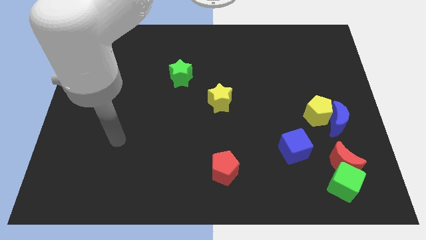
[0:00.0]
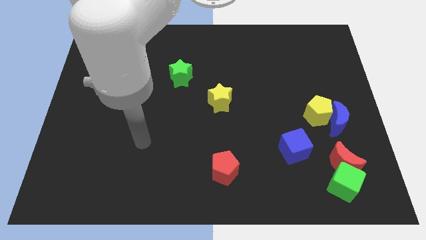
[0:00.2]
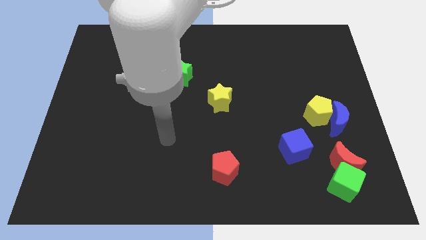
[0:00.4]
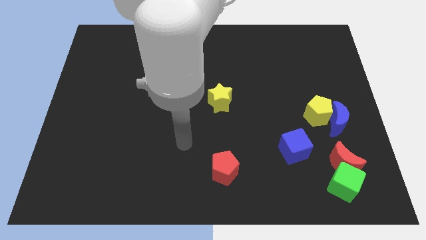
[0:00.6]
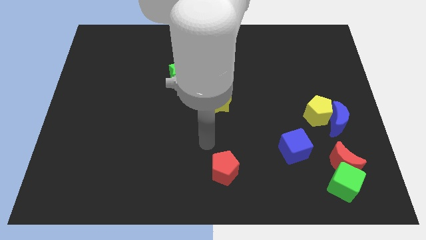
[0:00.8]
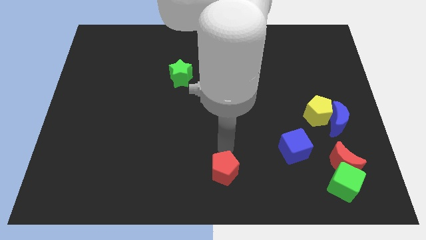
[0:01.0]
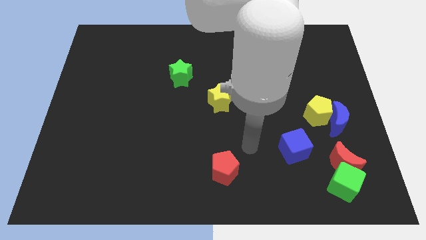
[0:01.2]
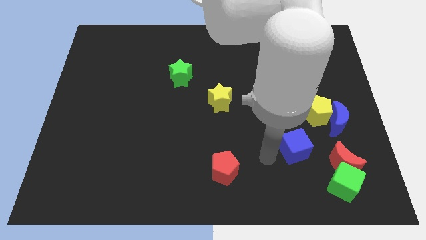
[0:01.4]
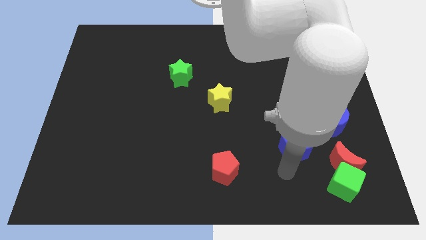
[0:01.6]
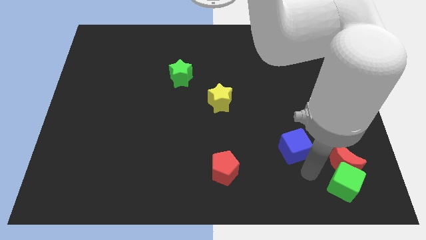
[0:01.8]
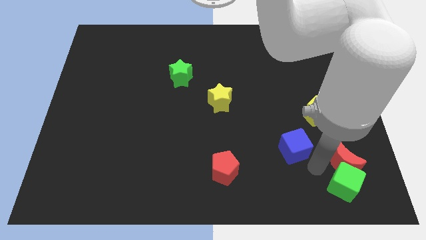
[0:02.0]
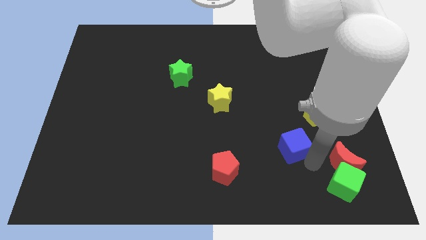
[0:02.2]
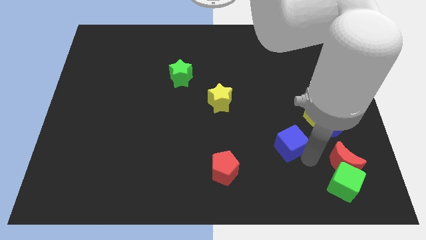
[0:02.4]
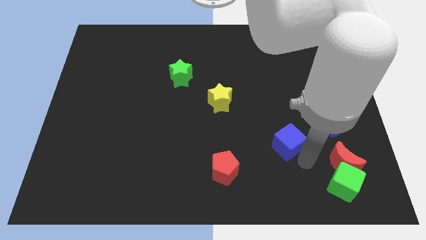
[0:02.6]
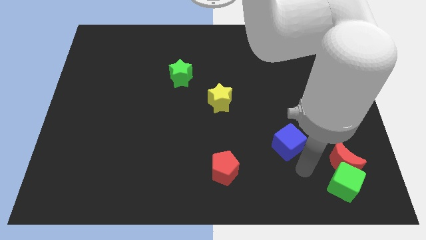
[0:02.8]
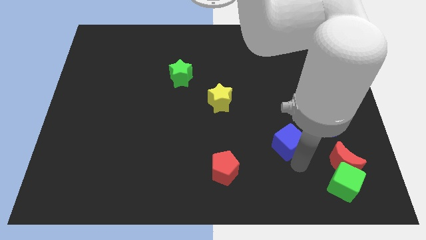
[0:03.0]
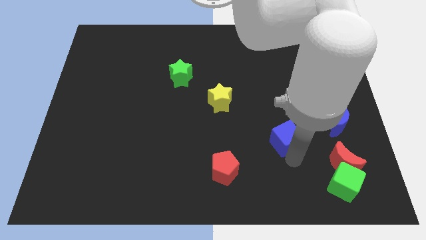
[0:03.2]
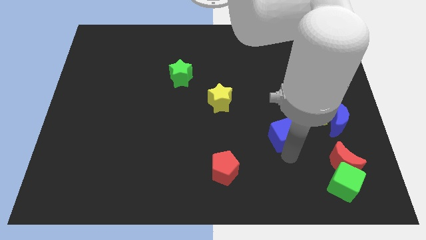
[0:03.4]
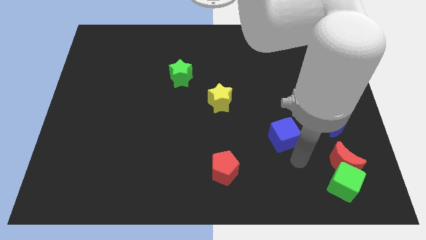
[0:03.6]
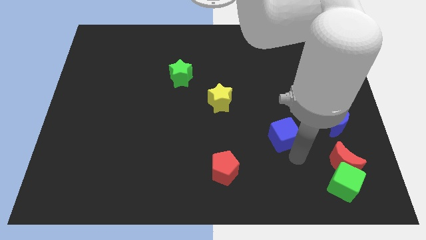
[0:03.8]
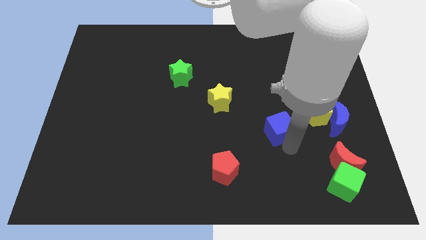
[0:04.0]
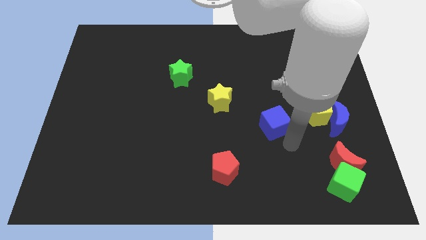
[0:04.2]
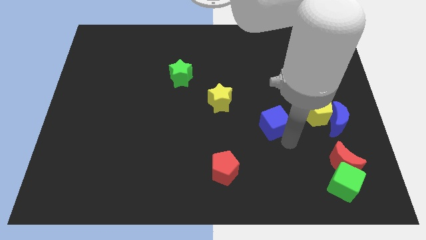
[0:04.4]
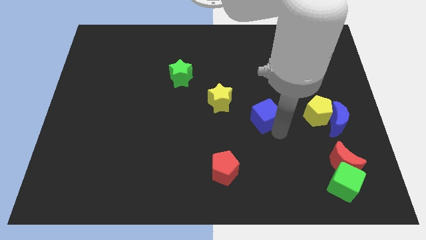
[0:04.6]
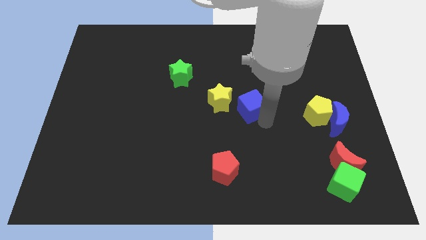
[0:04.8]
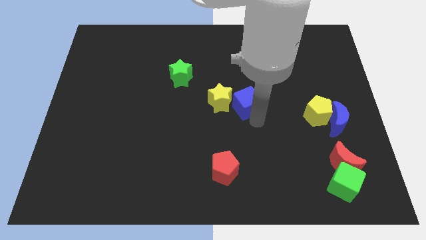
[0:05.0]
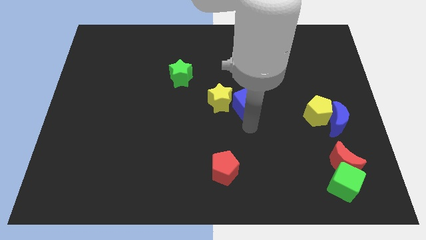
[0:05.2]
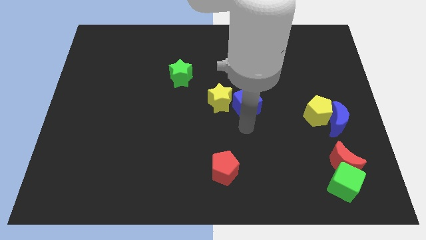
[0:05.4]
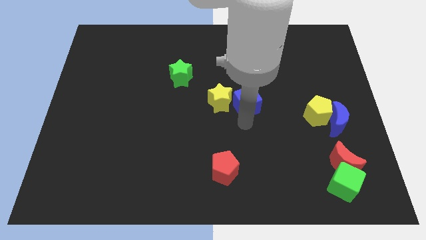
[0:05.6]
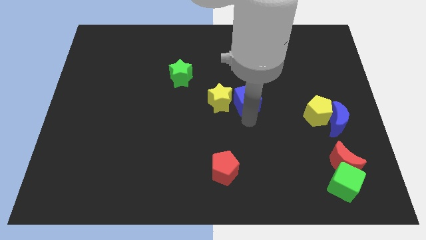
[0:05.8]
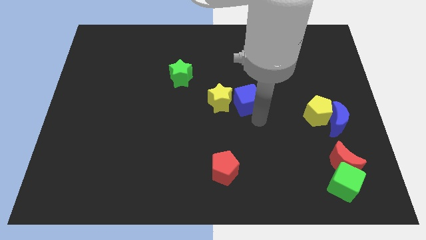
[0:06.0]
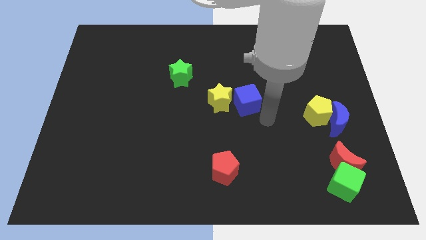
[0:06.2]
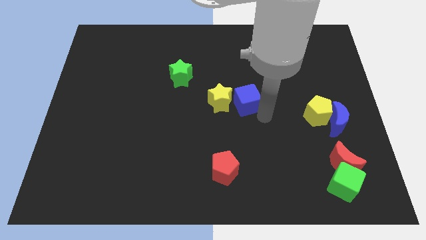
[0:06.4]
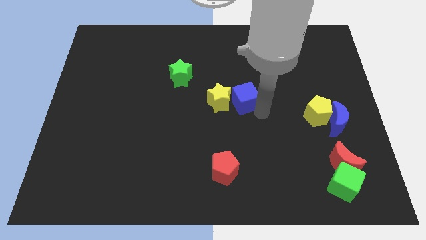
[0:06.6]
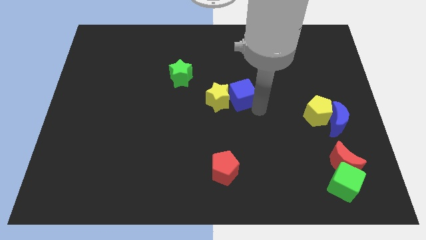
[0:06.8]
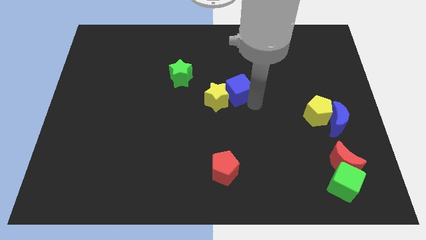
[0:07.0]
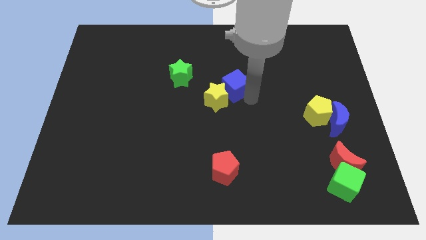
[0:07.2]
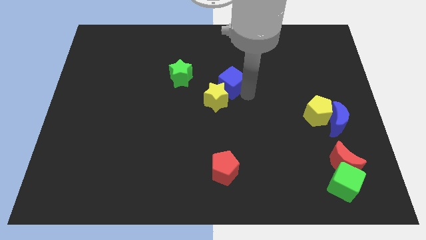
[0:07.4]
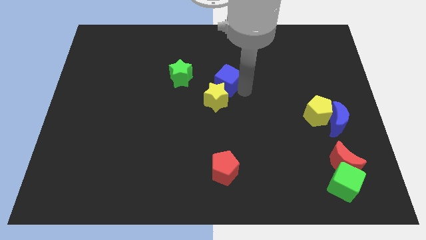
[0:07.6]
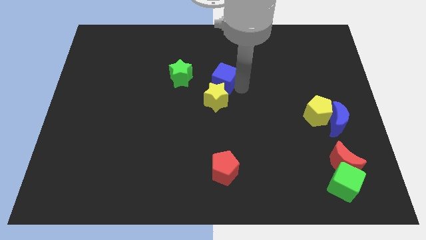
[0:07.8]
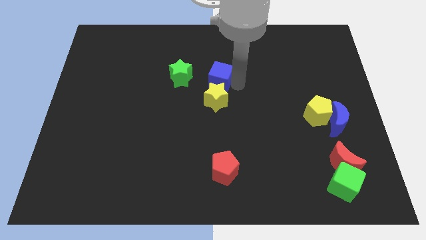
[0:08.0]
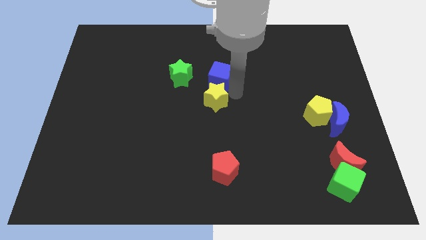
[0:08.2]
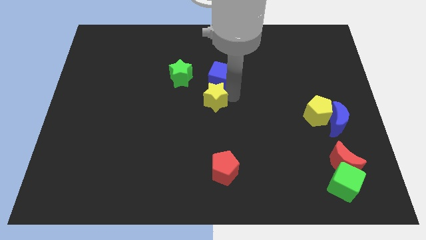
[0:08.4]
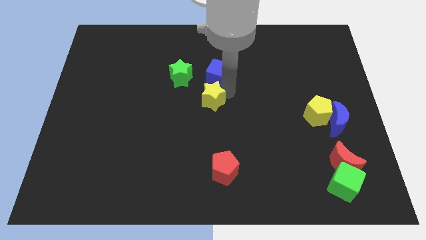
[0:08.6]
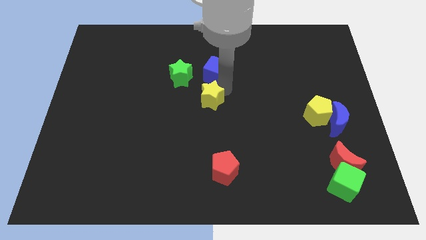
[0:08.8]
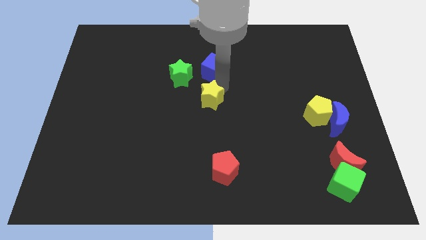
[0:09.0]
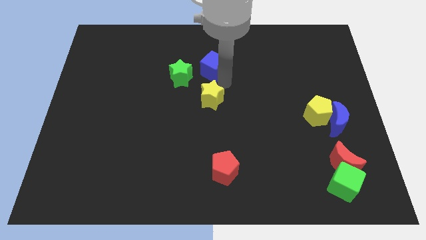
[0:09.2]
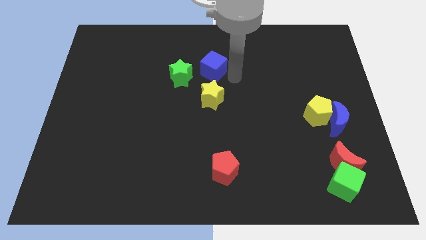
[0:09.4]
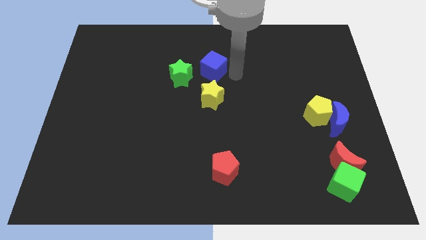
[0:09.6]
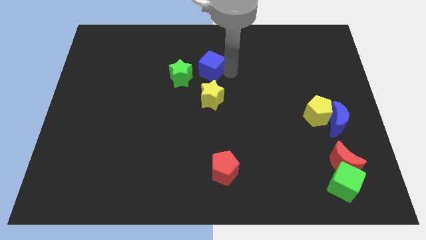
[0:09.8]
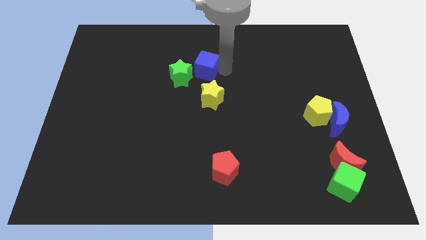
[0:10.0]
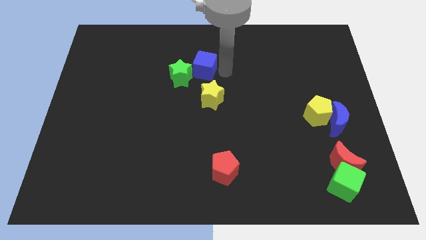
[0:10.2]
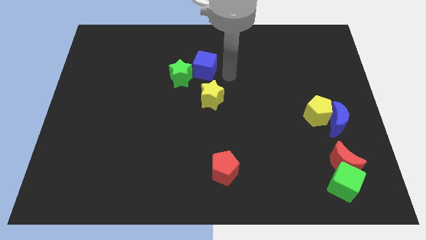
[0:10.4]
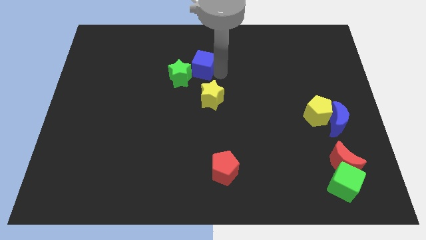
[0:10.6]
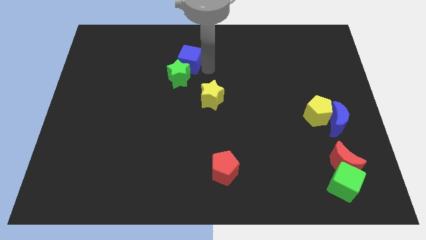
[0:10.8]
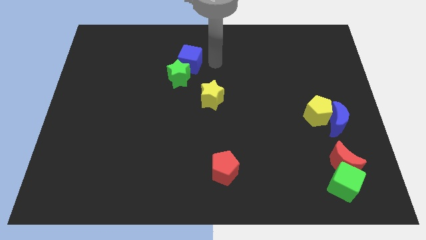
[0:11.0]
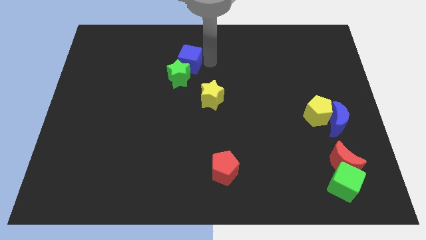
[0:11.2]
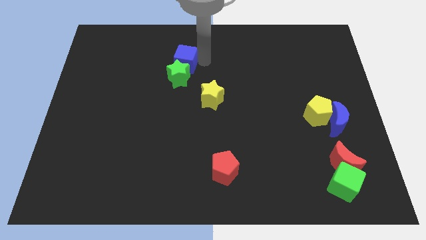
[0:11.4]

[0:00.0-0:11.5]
move the blue cube to the top left side of the green star

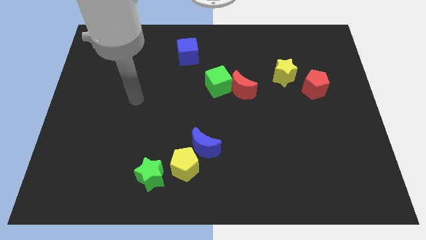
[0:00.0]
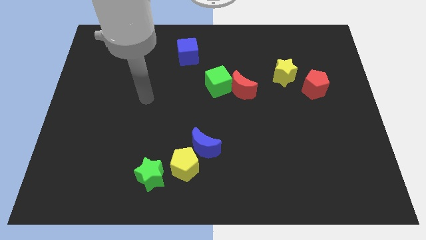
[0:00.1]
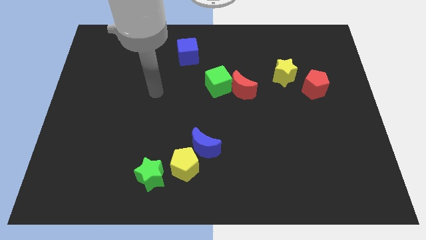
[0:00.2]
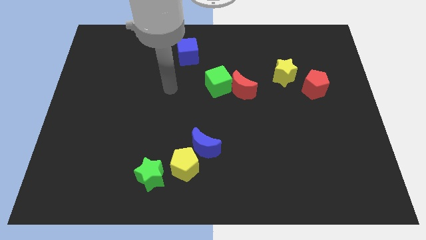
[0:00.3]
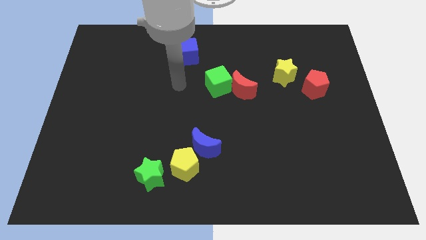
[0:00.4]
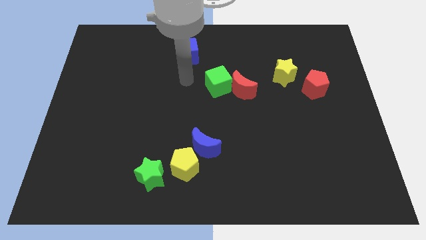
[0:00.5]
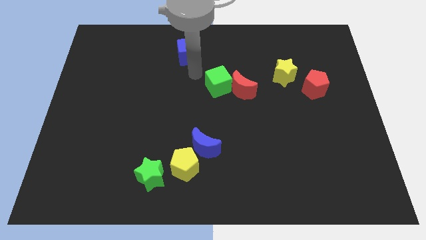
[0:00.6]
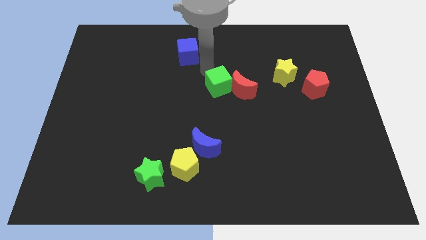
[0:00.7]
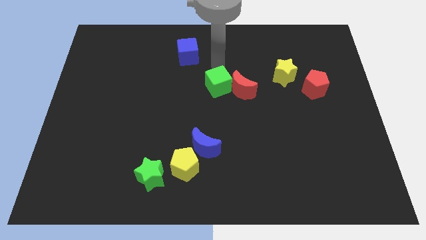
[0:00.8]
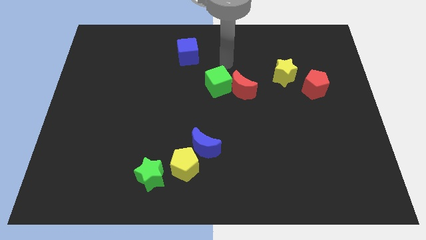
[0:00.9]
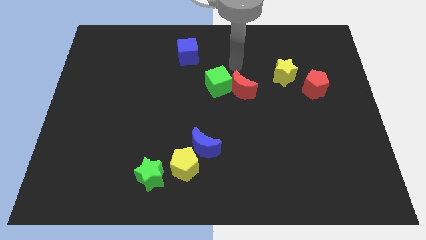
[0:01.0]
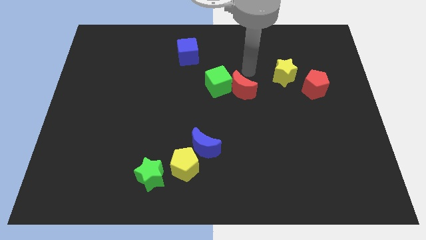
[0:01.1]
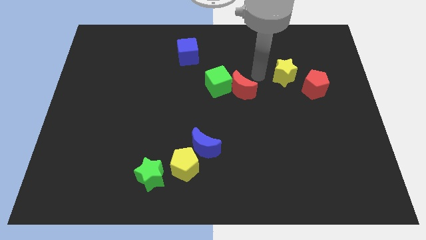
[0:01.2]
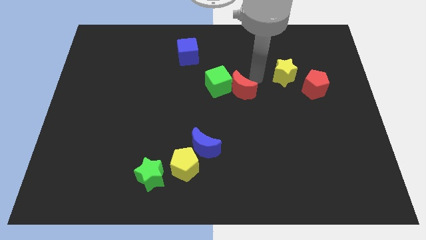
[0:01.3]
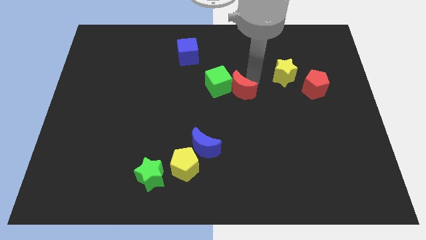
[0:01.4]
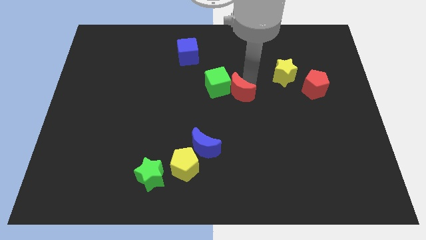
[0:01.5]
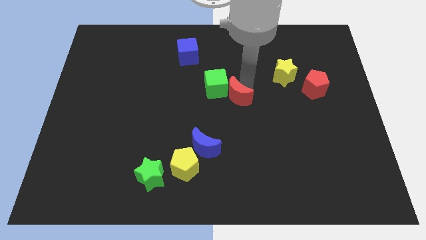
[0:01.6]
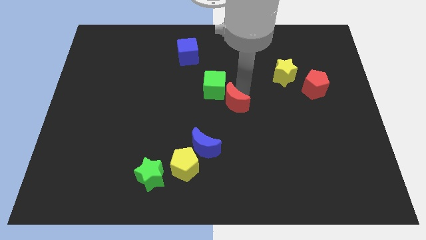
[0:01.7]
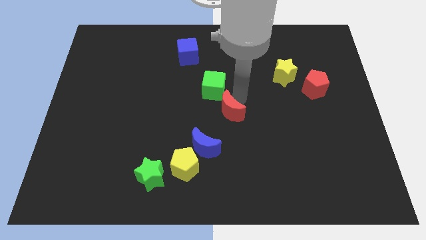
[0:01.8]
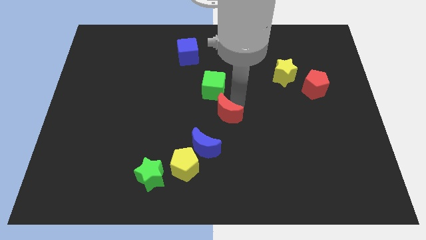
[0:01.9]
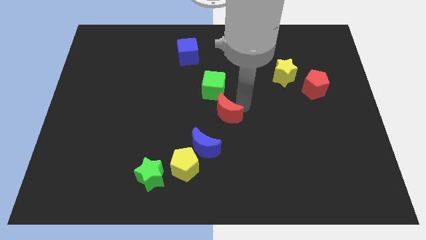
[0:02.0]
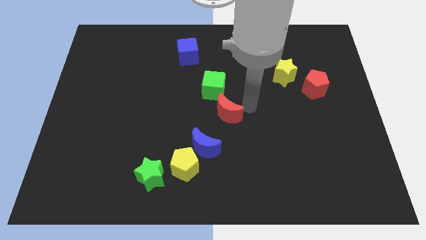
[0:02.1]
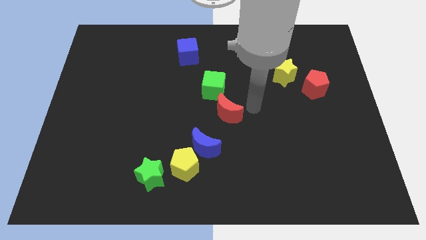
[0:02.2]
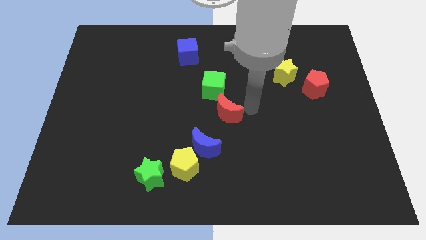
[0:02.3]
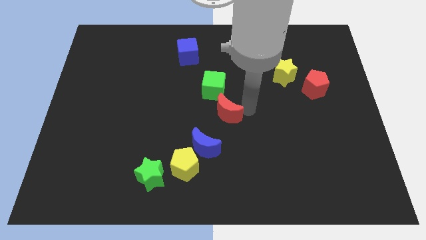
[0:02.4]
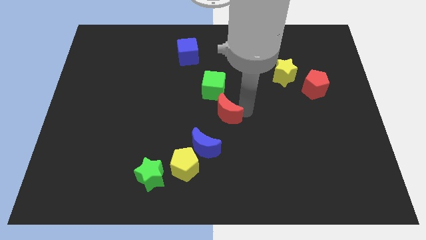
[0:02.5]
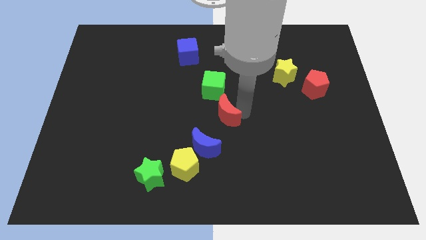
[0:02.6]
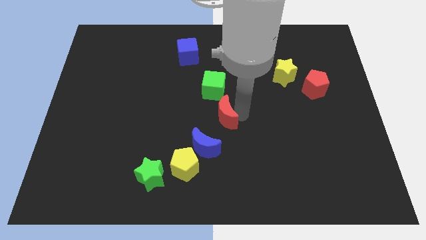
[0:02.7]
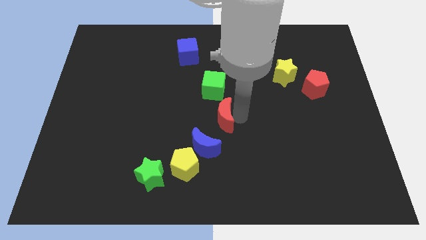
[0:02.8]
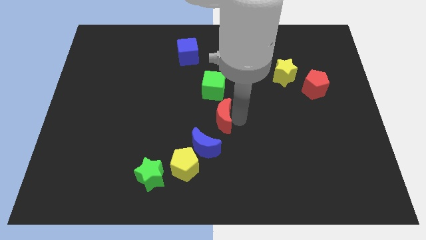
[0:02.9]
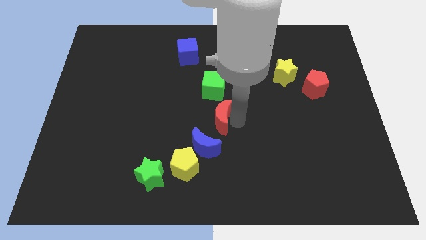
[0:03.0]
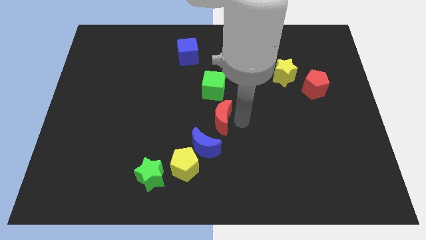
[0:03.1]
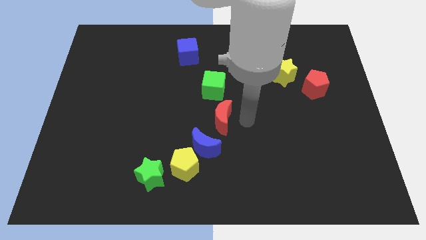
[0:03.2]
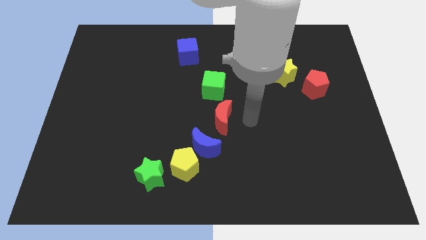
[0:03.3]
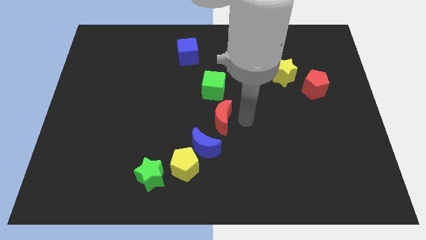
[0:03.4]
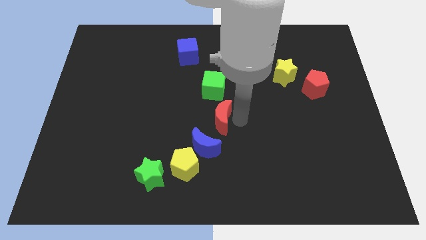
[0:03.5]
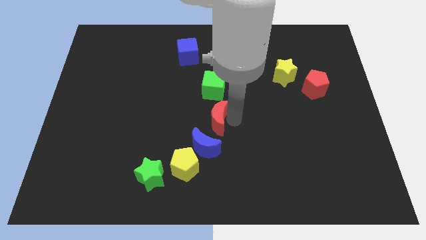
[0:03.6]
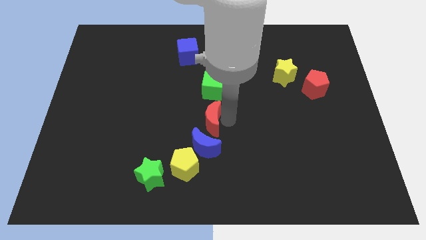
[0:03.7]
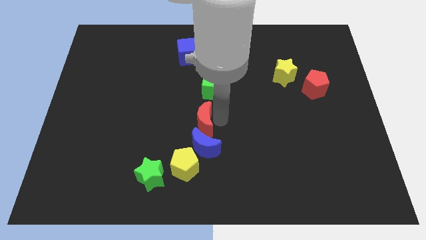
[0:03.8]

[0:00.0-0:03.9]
put the red moon to the top left side of the blue moon
